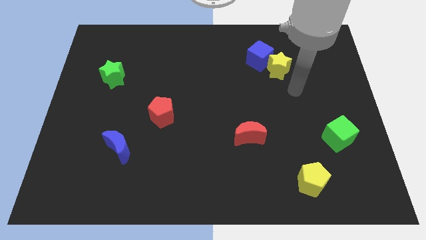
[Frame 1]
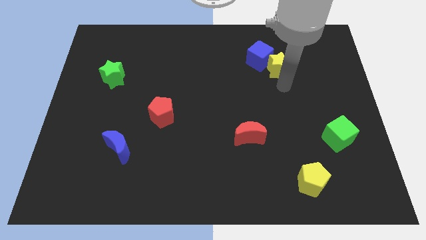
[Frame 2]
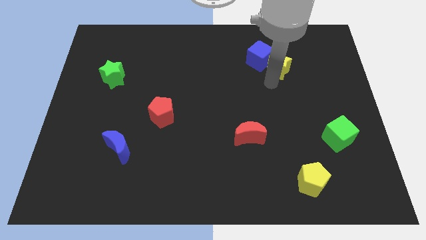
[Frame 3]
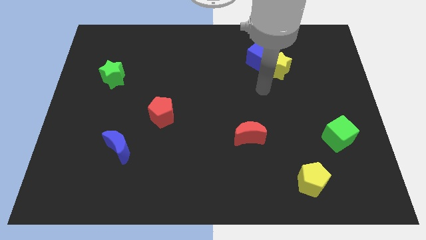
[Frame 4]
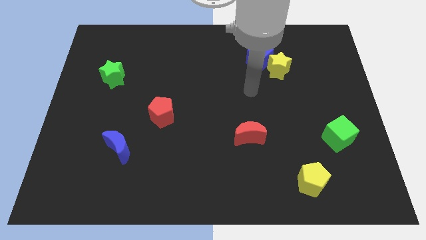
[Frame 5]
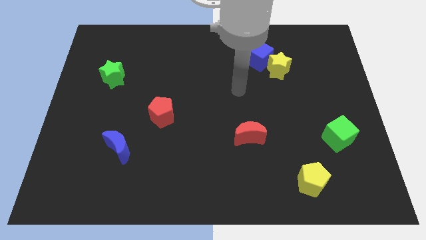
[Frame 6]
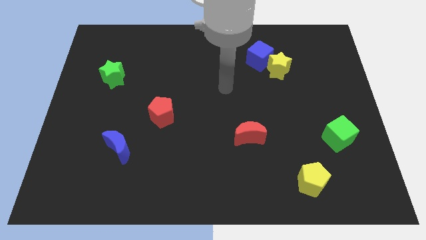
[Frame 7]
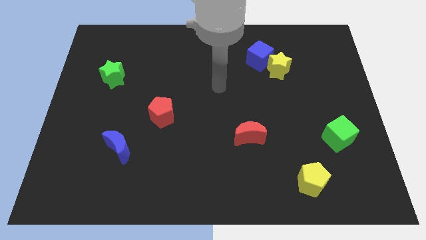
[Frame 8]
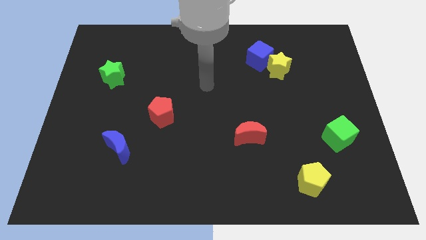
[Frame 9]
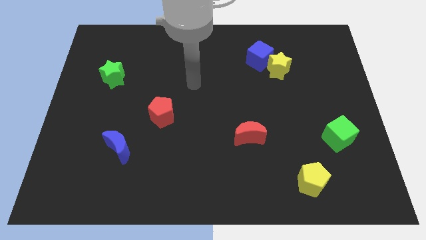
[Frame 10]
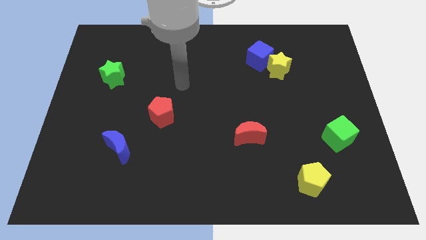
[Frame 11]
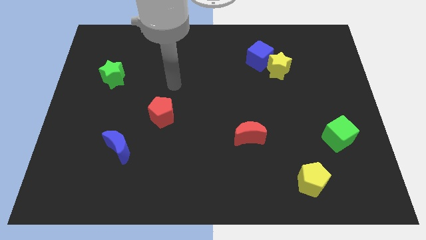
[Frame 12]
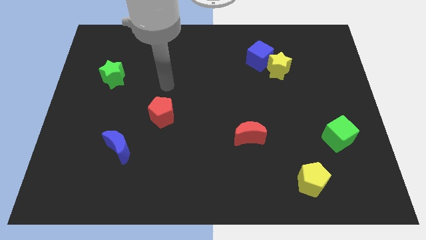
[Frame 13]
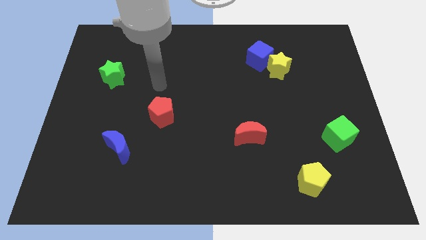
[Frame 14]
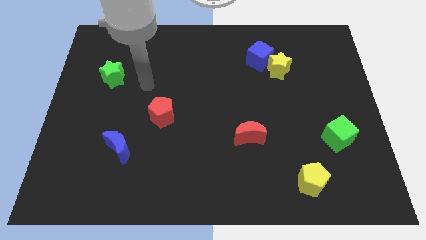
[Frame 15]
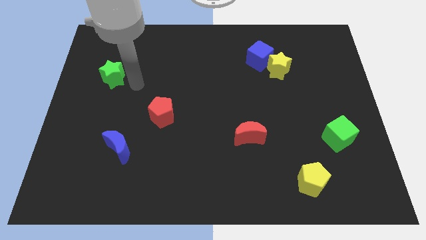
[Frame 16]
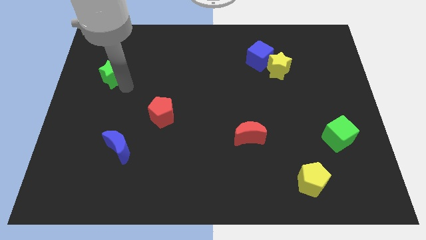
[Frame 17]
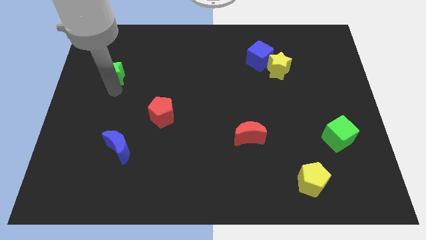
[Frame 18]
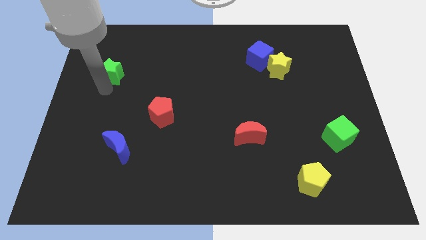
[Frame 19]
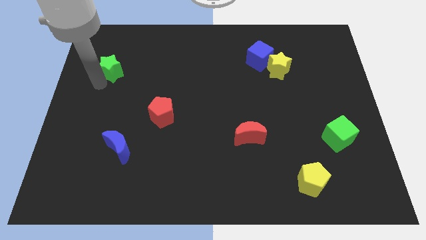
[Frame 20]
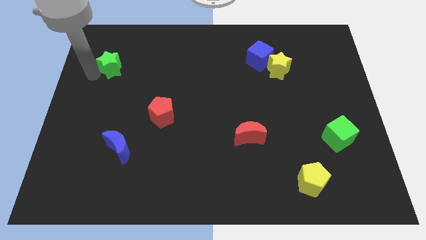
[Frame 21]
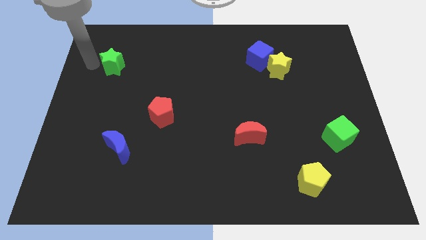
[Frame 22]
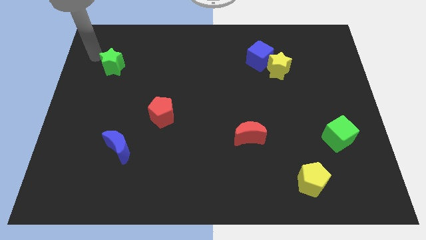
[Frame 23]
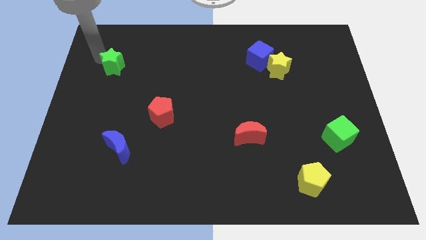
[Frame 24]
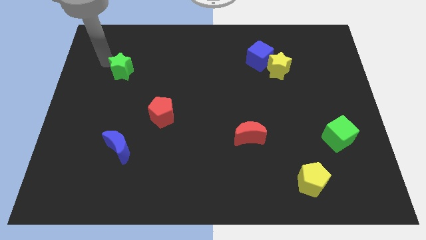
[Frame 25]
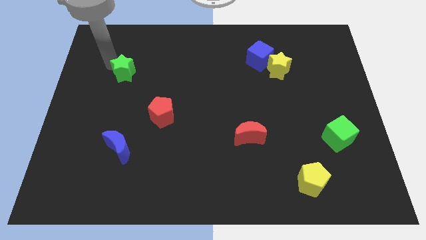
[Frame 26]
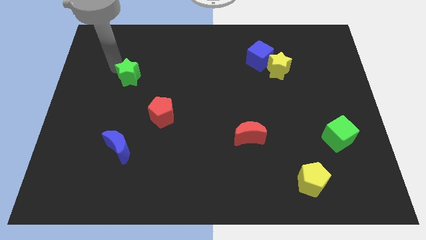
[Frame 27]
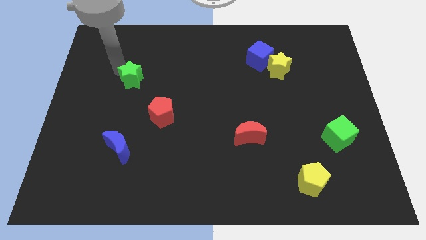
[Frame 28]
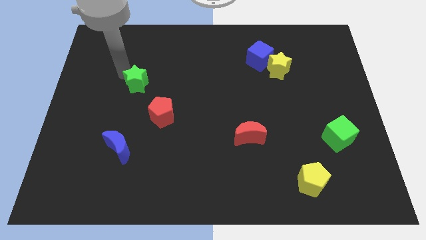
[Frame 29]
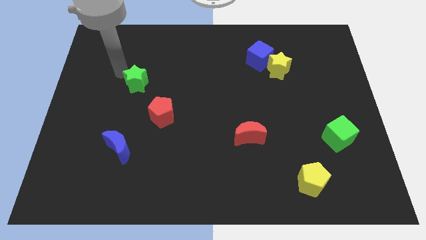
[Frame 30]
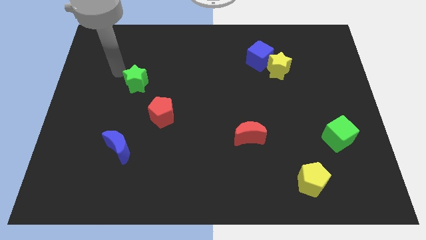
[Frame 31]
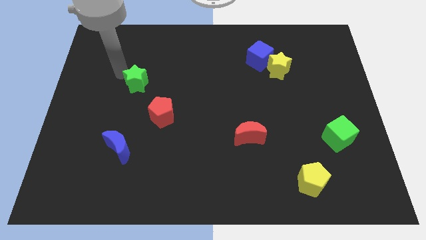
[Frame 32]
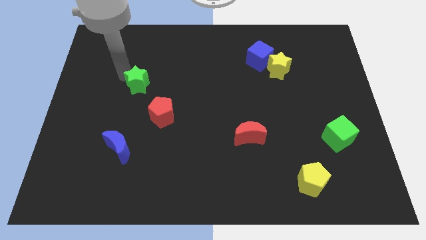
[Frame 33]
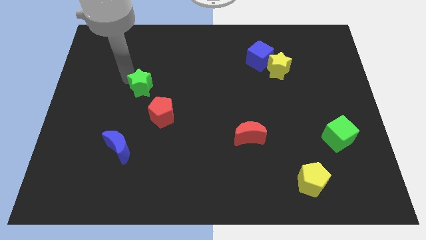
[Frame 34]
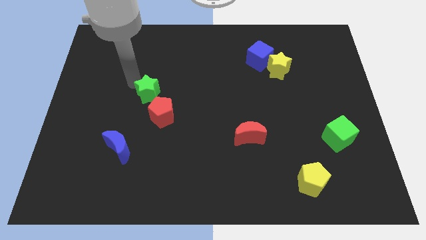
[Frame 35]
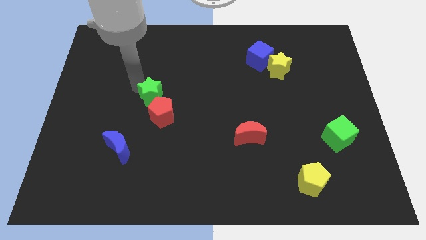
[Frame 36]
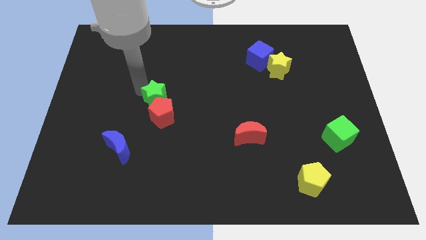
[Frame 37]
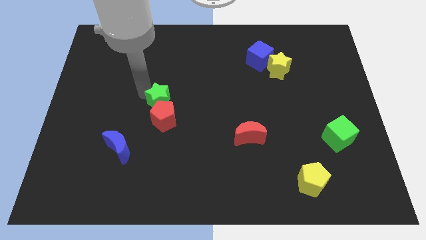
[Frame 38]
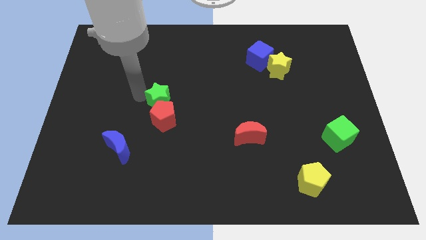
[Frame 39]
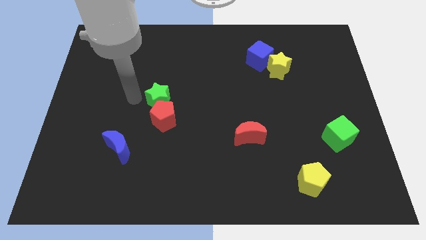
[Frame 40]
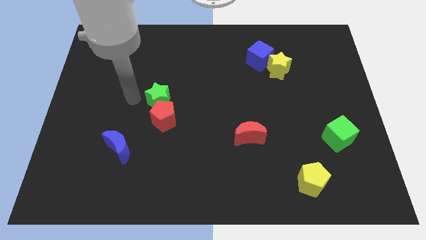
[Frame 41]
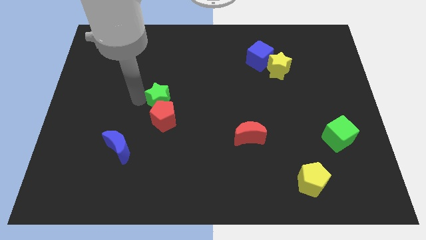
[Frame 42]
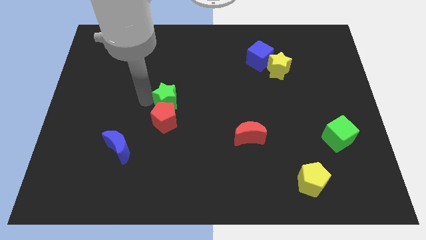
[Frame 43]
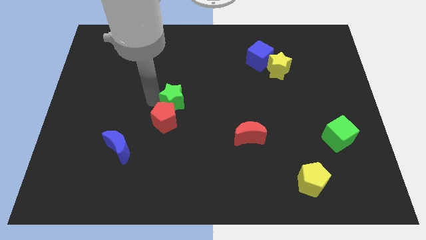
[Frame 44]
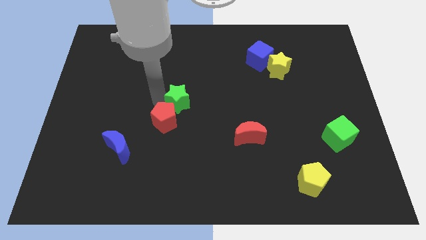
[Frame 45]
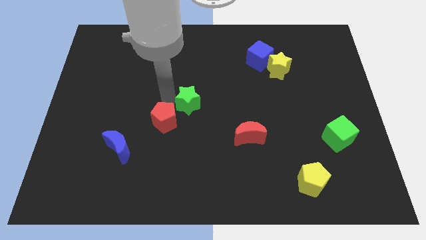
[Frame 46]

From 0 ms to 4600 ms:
push the green star to the right side of the red pentagon

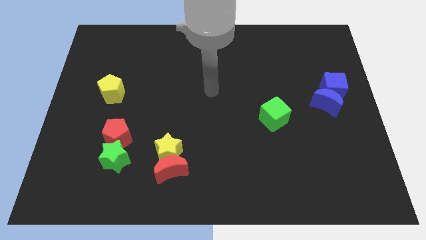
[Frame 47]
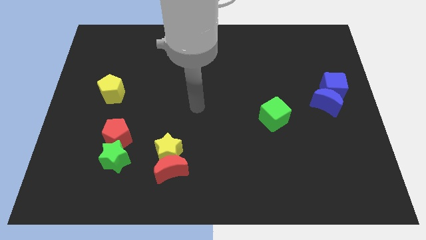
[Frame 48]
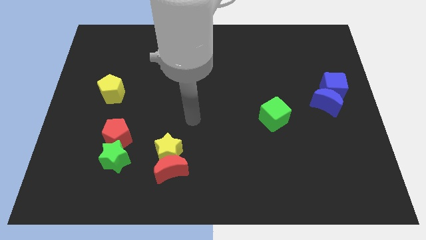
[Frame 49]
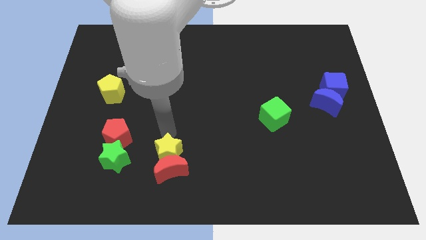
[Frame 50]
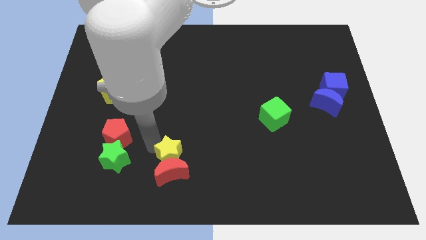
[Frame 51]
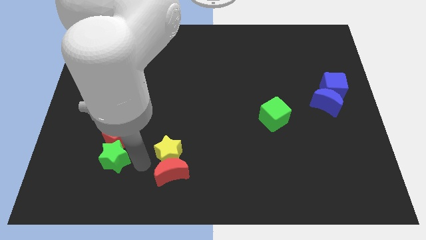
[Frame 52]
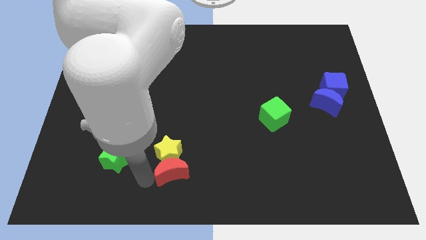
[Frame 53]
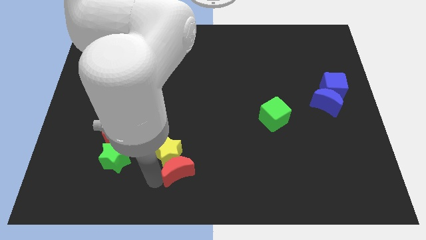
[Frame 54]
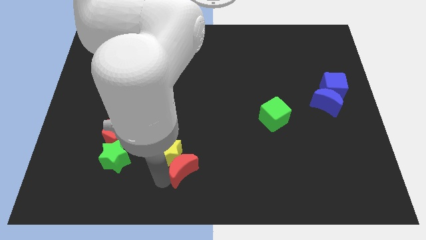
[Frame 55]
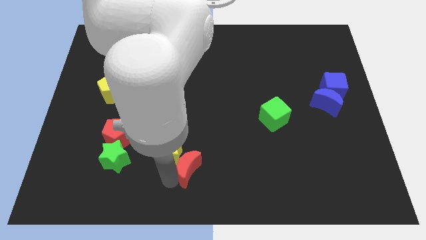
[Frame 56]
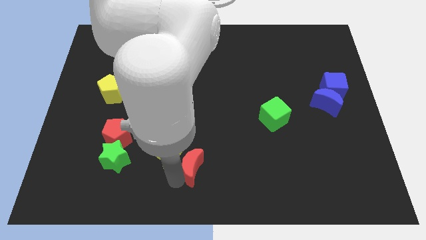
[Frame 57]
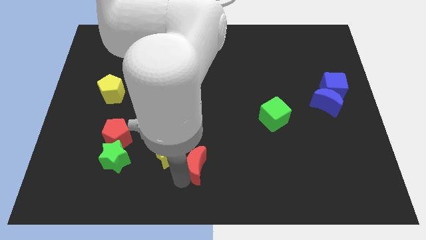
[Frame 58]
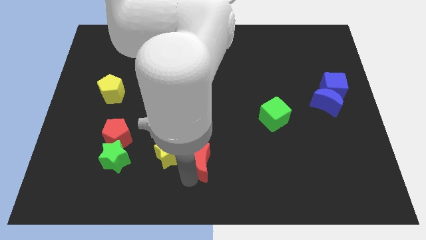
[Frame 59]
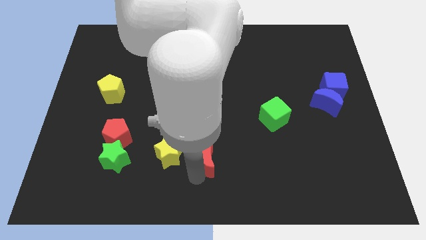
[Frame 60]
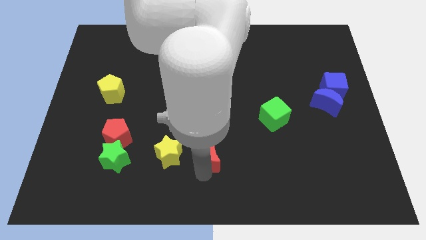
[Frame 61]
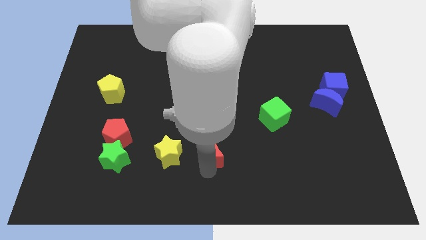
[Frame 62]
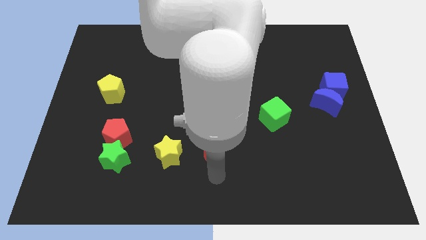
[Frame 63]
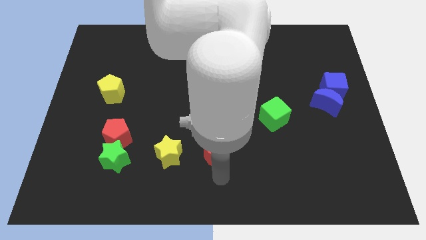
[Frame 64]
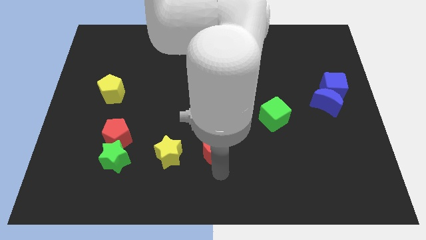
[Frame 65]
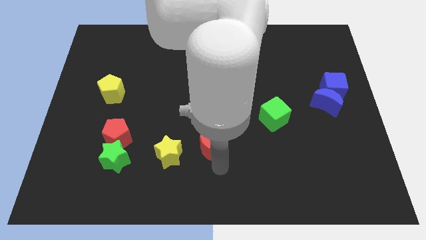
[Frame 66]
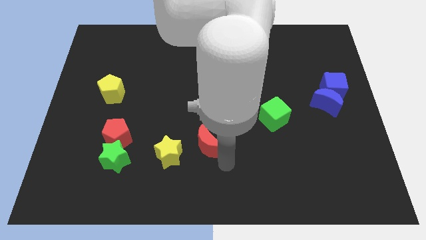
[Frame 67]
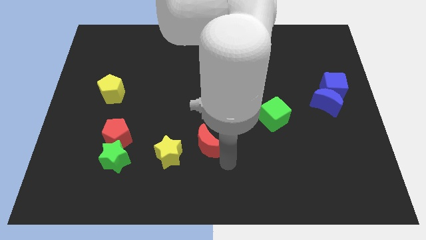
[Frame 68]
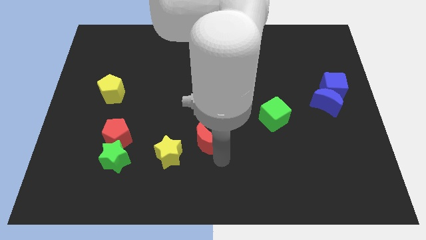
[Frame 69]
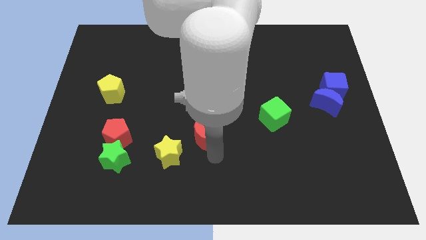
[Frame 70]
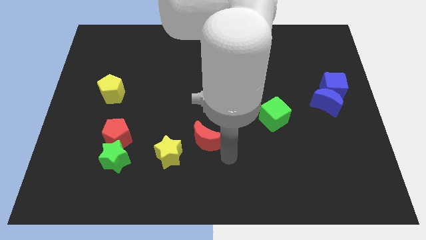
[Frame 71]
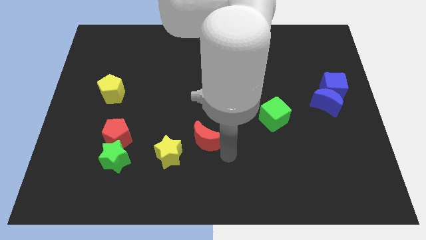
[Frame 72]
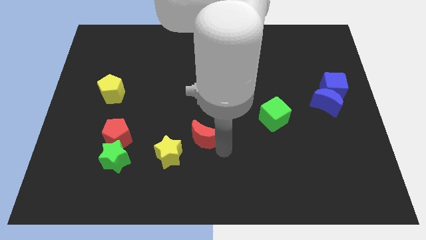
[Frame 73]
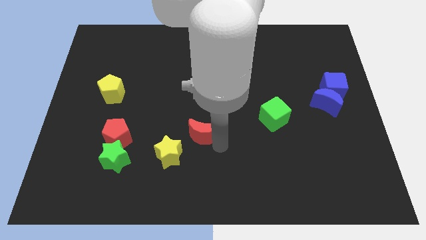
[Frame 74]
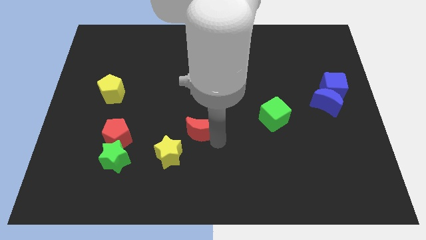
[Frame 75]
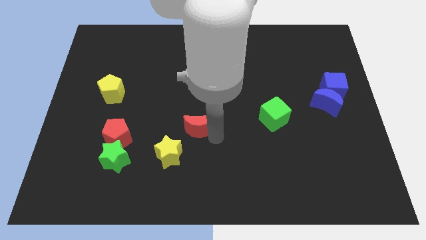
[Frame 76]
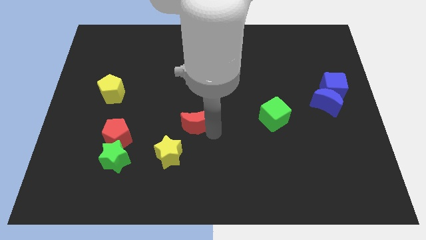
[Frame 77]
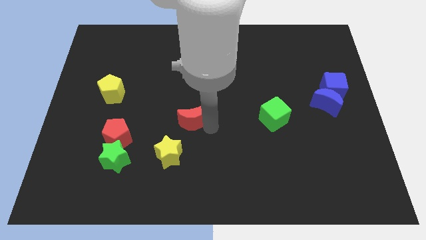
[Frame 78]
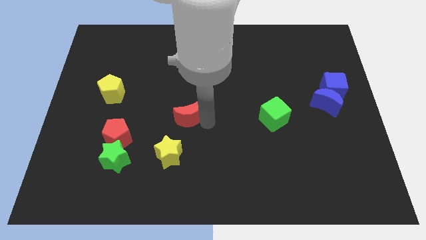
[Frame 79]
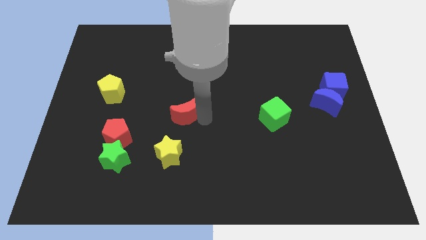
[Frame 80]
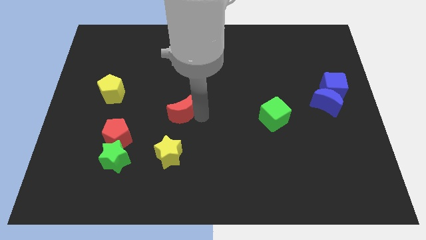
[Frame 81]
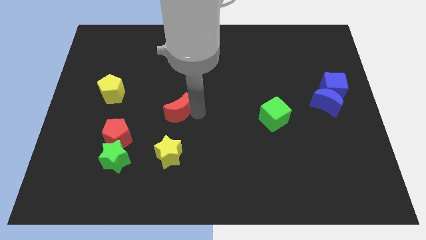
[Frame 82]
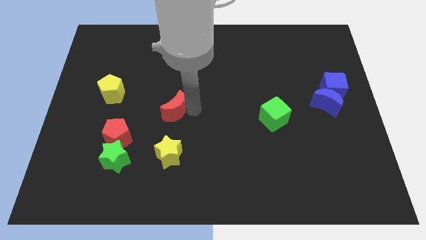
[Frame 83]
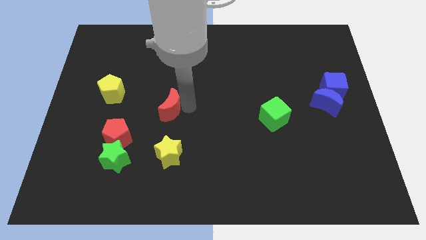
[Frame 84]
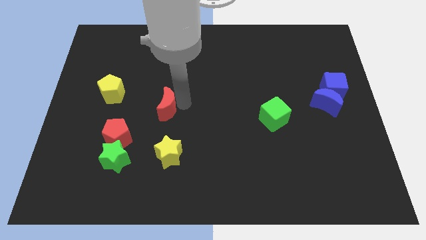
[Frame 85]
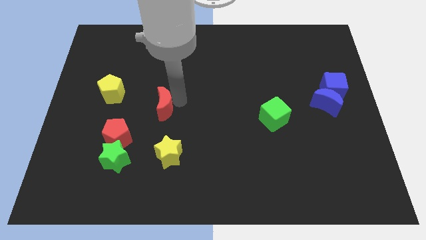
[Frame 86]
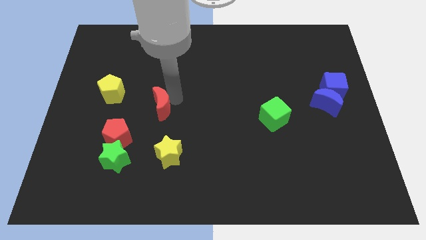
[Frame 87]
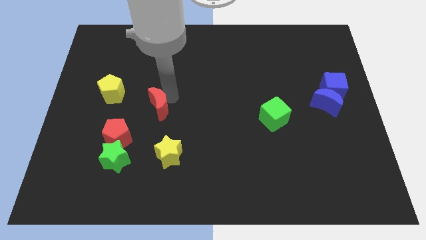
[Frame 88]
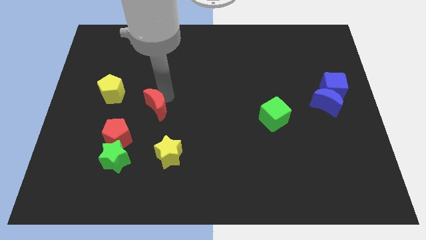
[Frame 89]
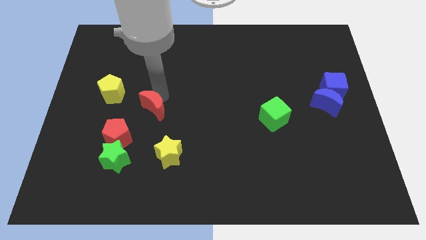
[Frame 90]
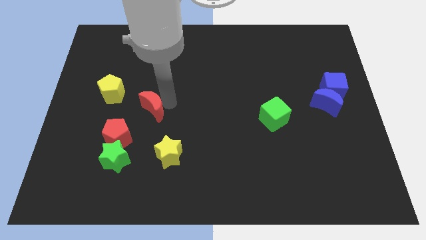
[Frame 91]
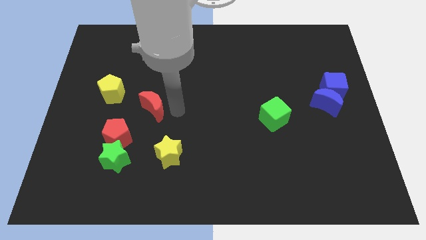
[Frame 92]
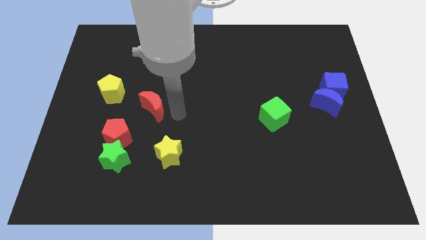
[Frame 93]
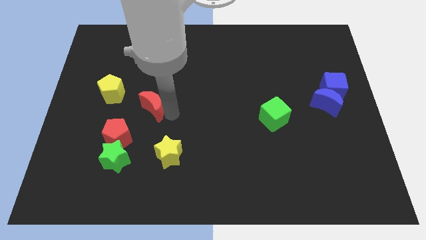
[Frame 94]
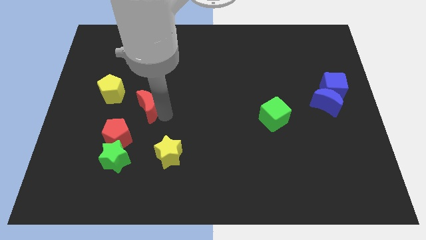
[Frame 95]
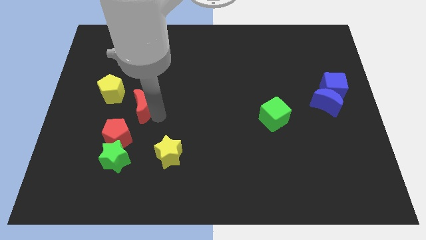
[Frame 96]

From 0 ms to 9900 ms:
push the red moon above the red pentagon
